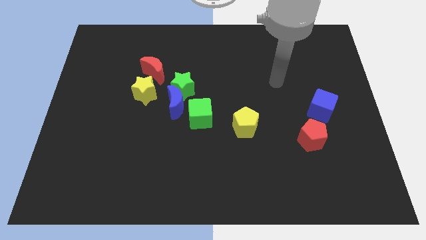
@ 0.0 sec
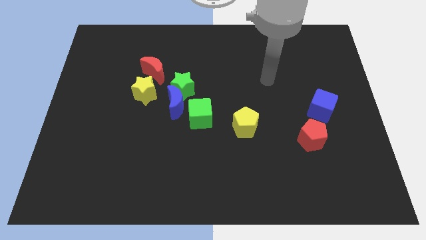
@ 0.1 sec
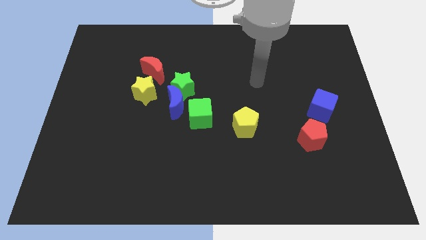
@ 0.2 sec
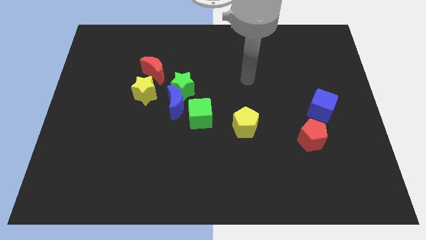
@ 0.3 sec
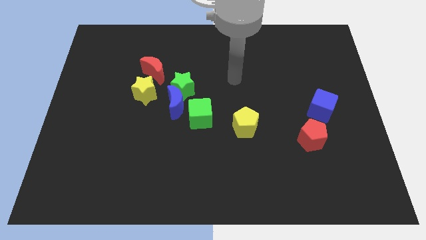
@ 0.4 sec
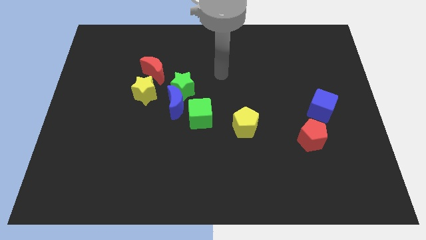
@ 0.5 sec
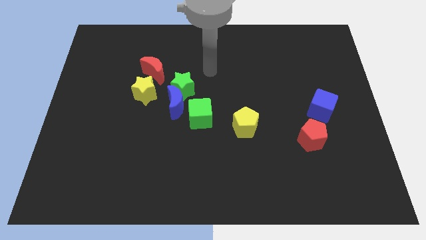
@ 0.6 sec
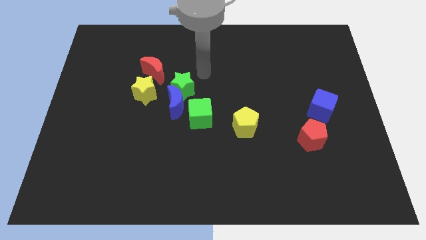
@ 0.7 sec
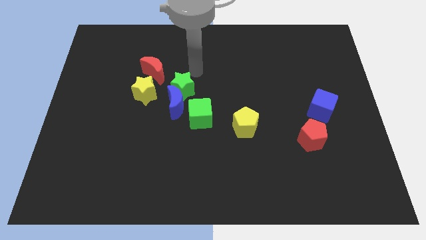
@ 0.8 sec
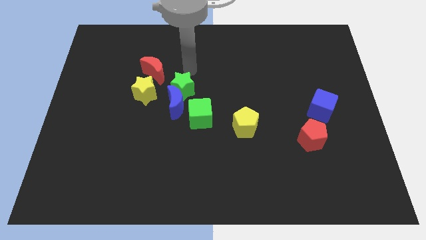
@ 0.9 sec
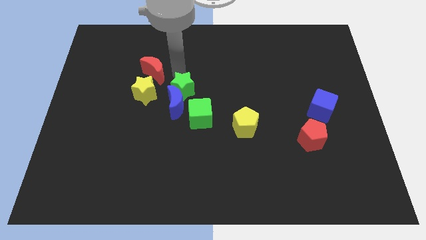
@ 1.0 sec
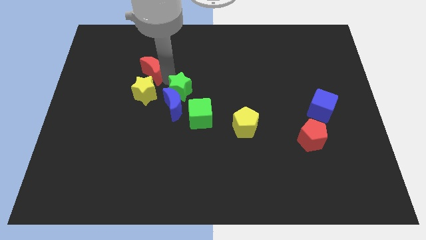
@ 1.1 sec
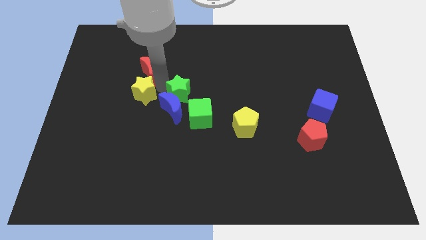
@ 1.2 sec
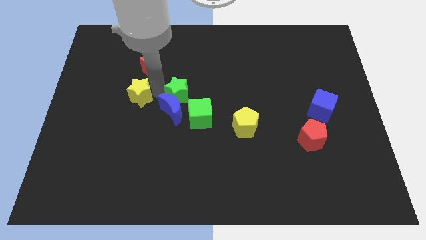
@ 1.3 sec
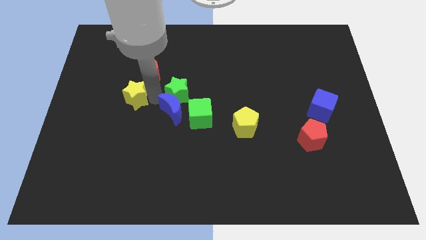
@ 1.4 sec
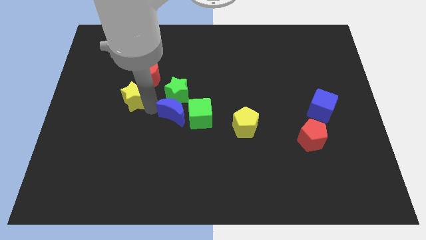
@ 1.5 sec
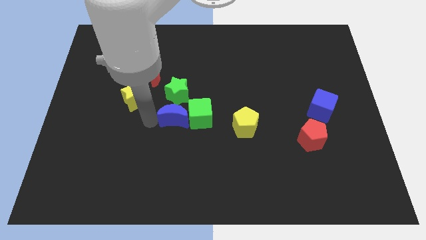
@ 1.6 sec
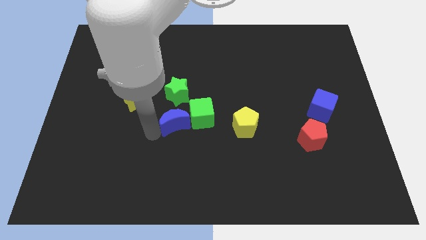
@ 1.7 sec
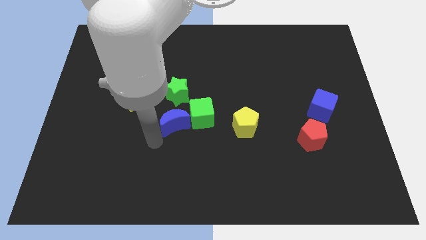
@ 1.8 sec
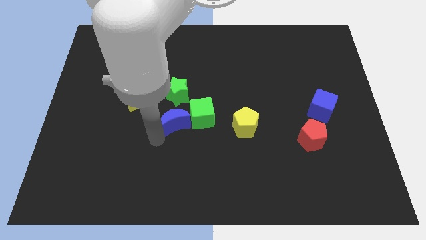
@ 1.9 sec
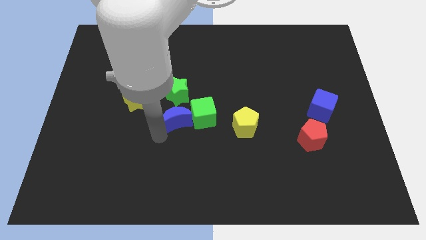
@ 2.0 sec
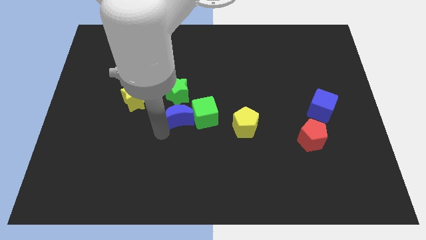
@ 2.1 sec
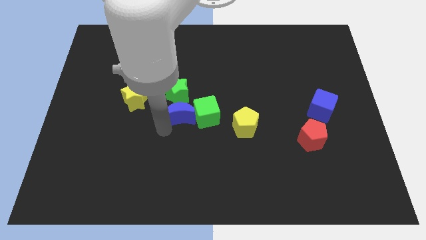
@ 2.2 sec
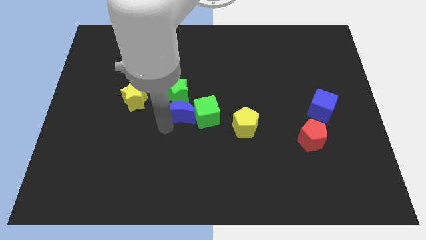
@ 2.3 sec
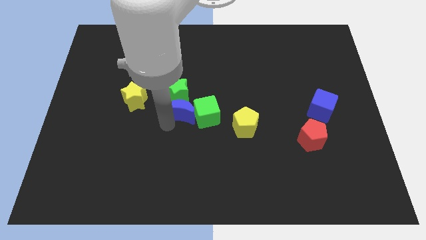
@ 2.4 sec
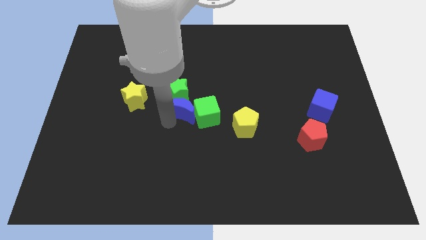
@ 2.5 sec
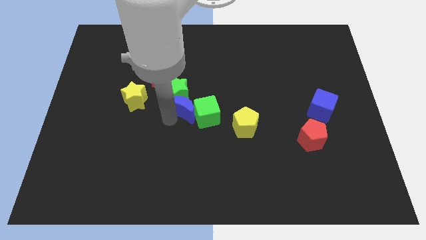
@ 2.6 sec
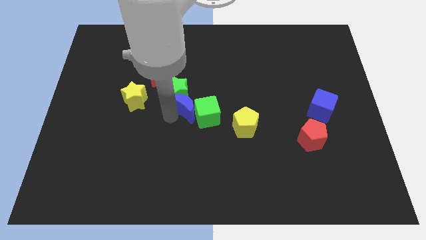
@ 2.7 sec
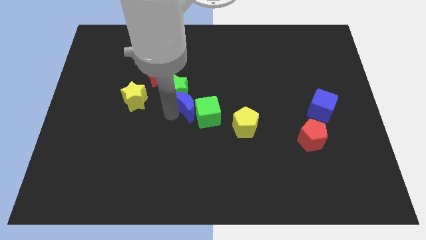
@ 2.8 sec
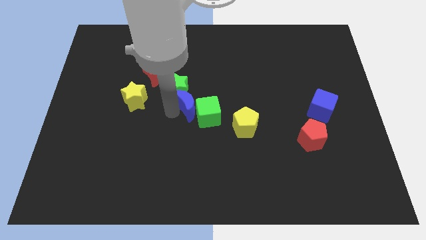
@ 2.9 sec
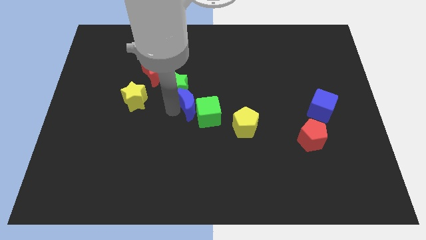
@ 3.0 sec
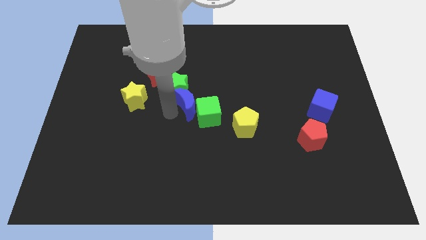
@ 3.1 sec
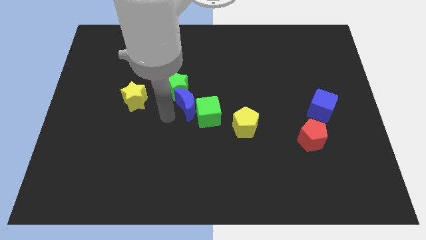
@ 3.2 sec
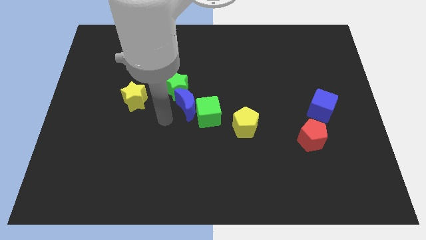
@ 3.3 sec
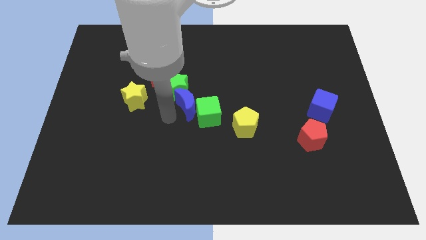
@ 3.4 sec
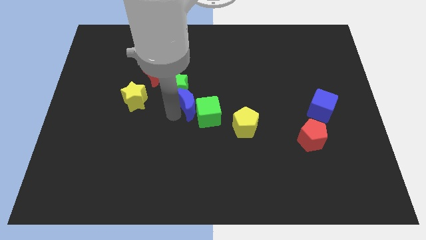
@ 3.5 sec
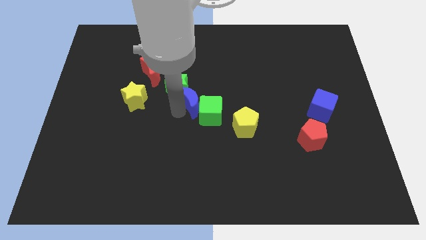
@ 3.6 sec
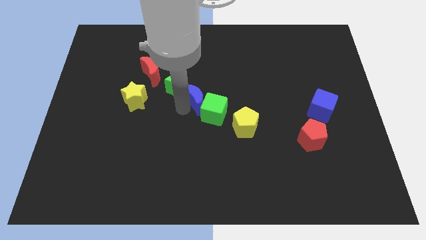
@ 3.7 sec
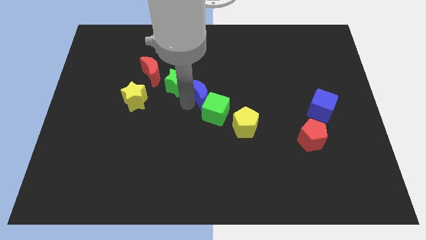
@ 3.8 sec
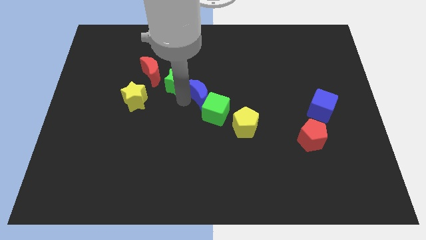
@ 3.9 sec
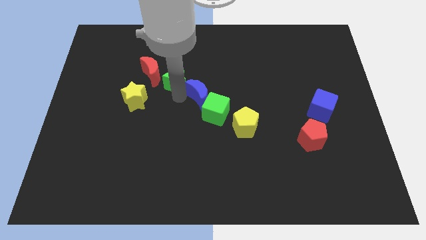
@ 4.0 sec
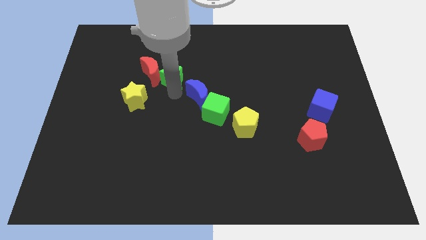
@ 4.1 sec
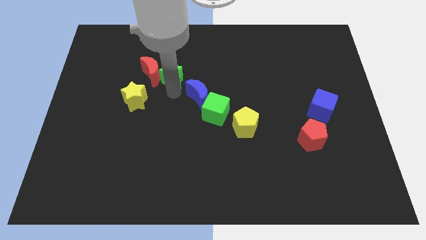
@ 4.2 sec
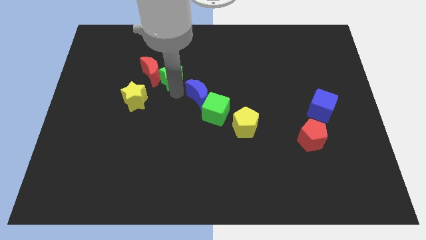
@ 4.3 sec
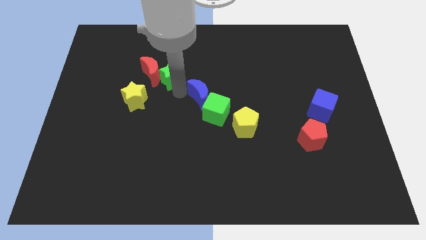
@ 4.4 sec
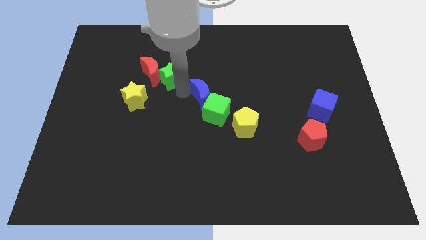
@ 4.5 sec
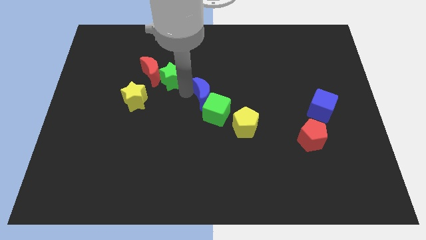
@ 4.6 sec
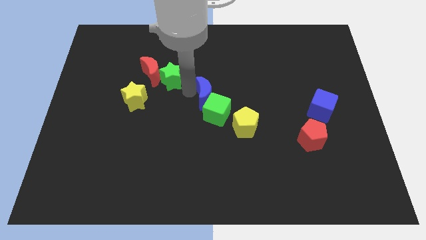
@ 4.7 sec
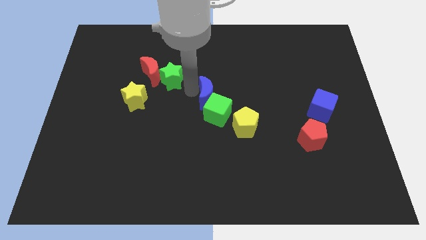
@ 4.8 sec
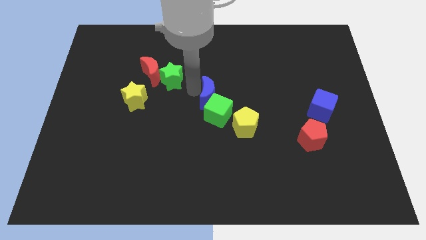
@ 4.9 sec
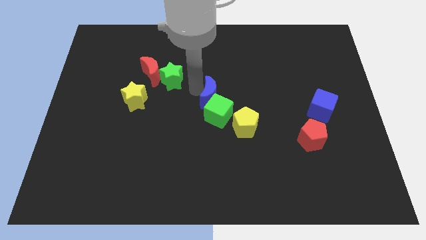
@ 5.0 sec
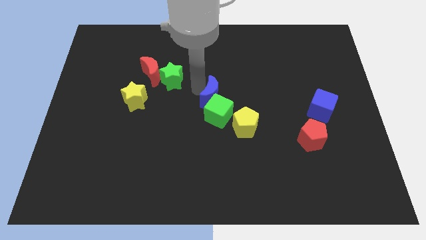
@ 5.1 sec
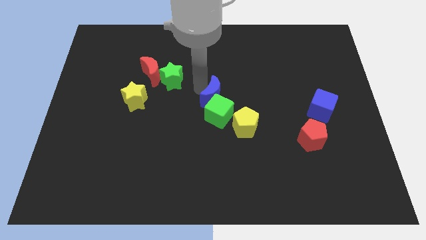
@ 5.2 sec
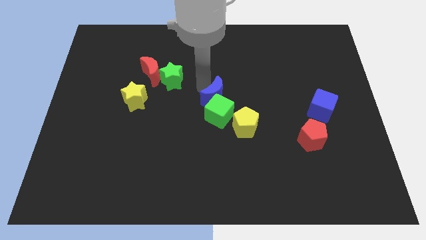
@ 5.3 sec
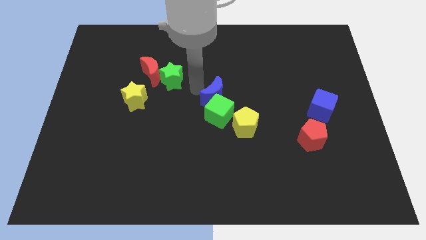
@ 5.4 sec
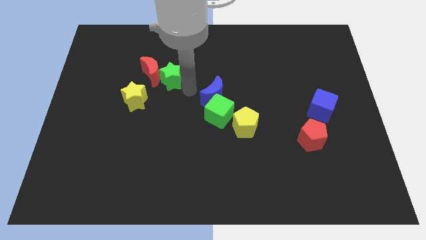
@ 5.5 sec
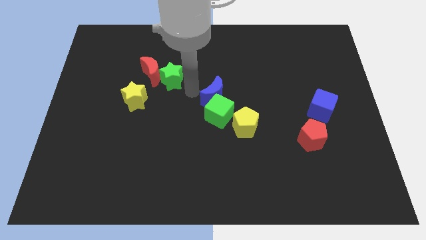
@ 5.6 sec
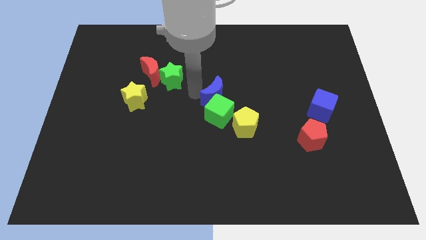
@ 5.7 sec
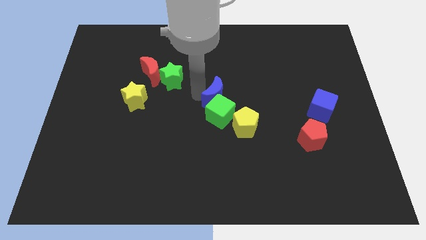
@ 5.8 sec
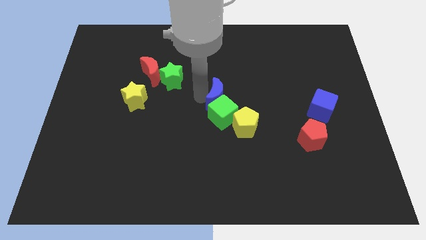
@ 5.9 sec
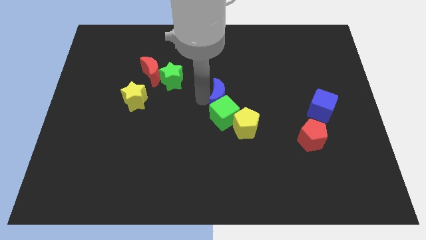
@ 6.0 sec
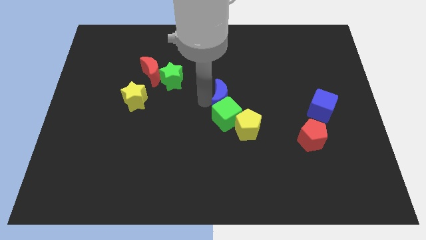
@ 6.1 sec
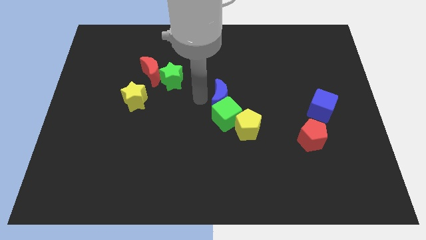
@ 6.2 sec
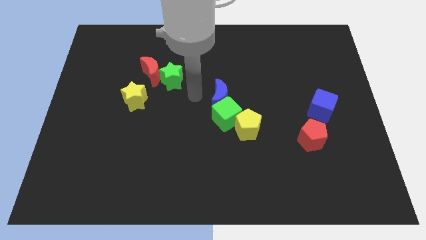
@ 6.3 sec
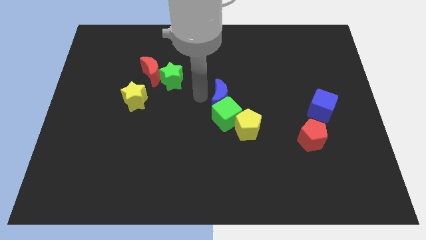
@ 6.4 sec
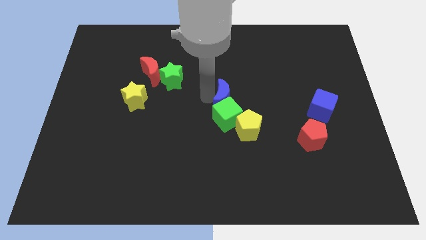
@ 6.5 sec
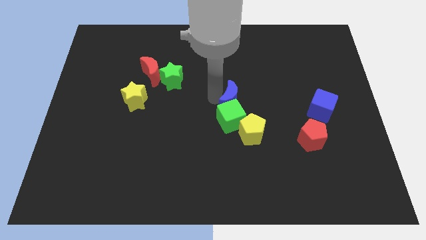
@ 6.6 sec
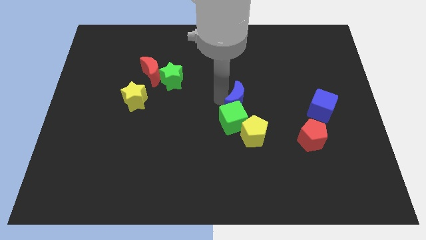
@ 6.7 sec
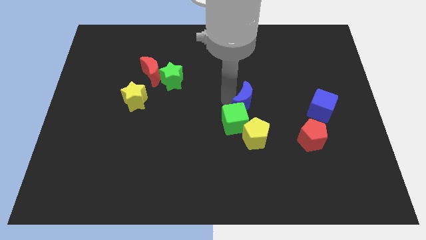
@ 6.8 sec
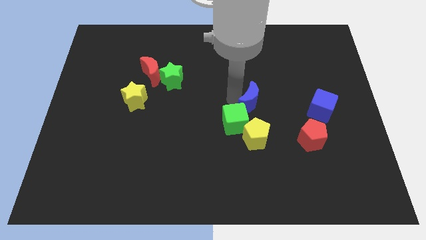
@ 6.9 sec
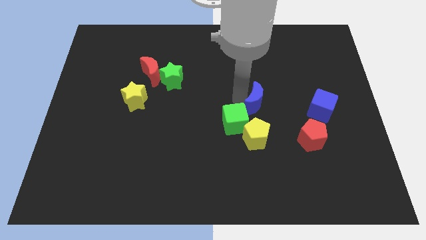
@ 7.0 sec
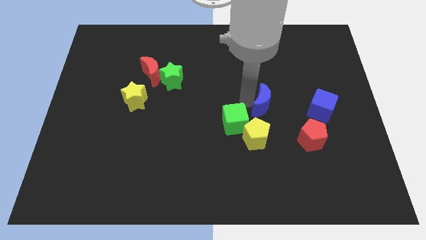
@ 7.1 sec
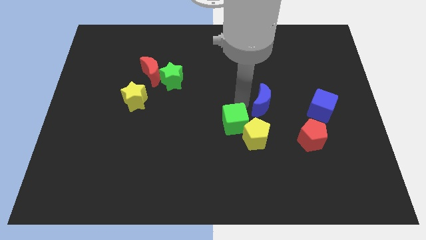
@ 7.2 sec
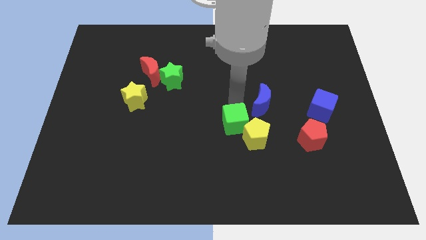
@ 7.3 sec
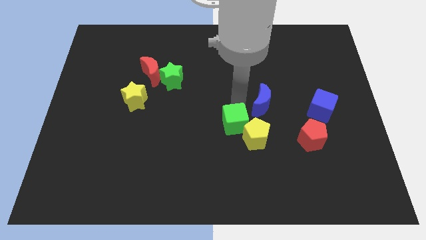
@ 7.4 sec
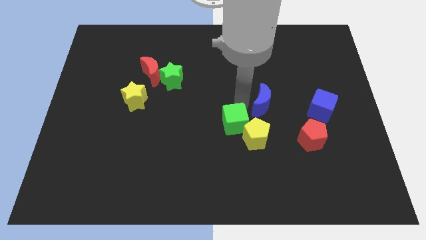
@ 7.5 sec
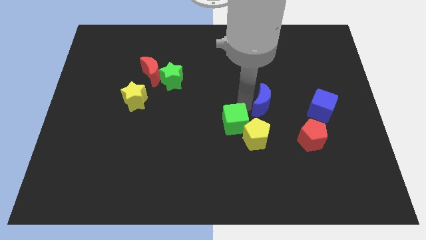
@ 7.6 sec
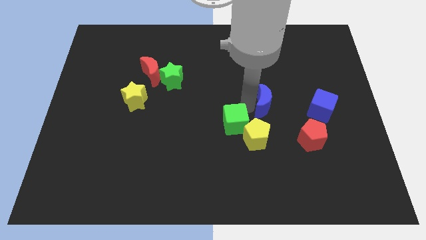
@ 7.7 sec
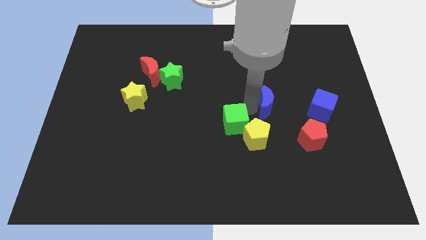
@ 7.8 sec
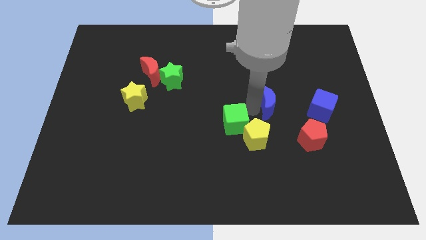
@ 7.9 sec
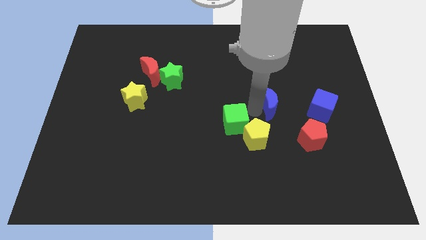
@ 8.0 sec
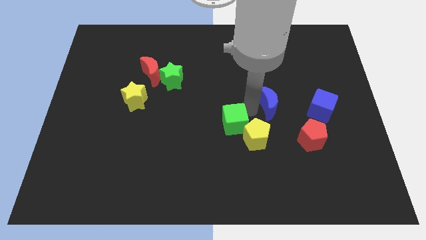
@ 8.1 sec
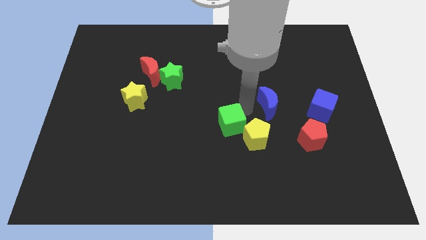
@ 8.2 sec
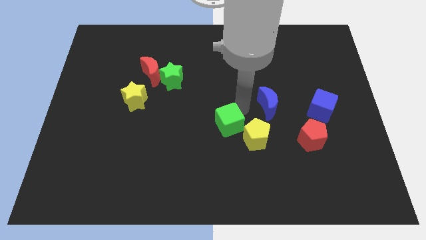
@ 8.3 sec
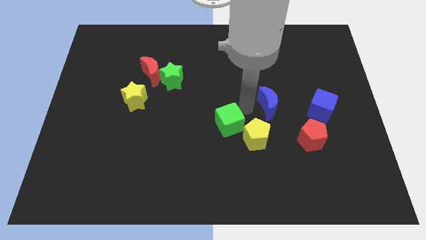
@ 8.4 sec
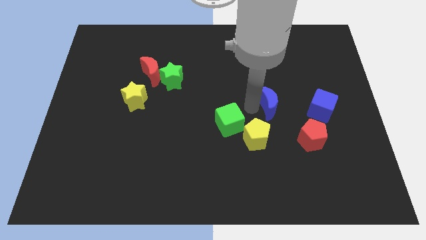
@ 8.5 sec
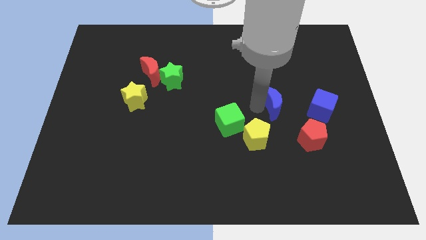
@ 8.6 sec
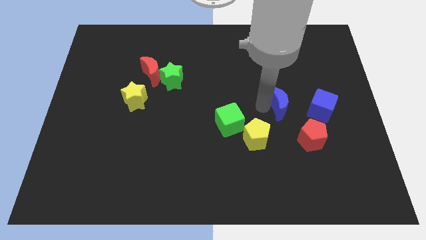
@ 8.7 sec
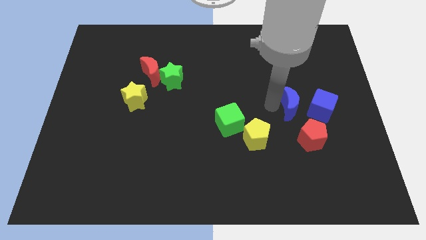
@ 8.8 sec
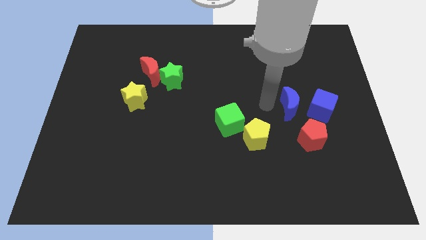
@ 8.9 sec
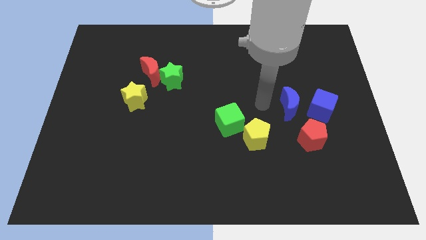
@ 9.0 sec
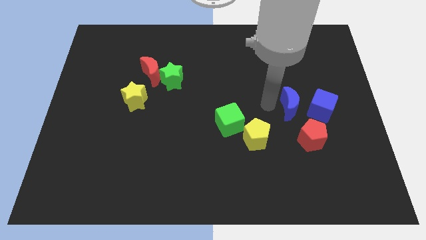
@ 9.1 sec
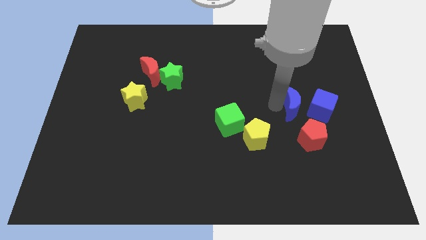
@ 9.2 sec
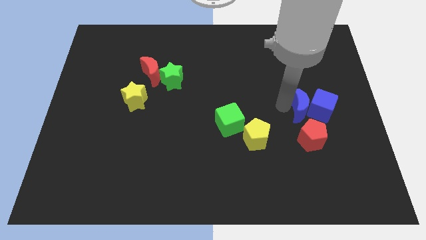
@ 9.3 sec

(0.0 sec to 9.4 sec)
push the blue moon close to the blue cube
